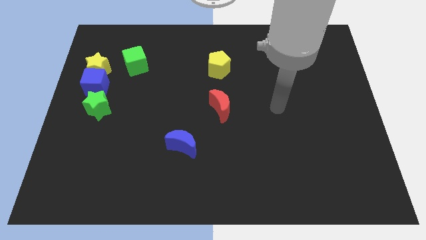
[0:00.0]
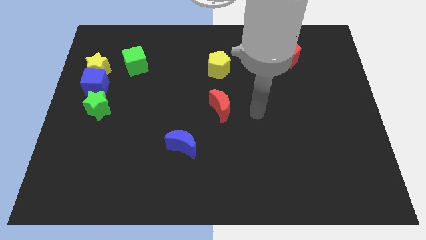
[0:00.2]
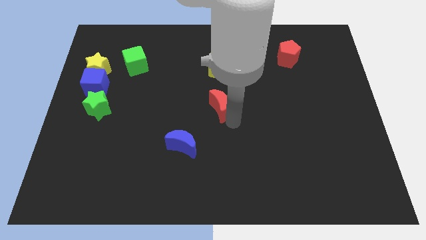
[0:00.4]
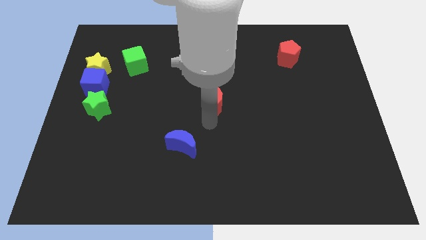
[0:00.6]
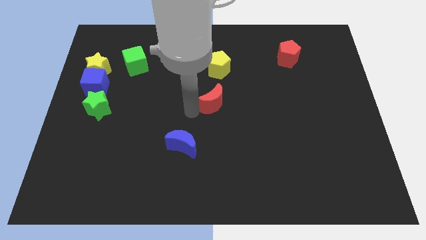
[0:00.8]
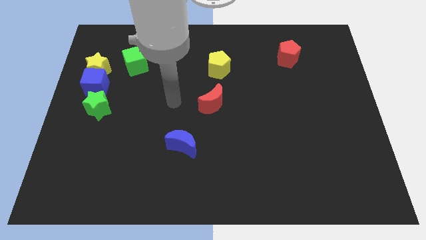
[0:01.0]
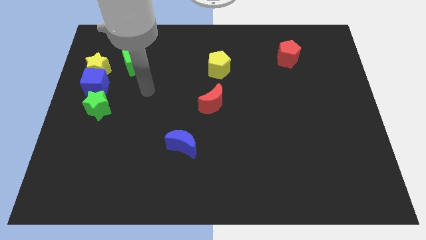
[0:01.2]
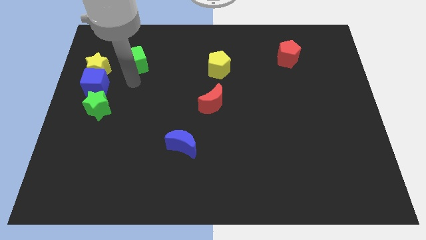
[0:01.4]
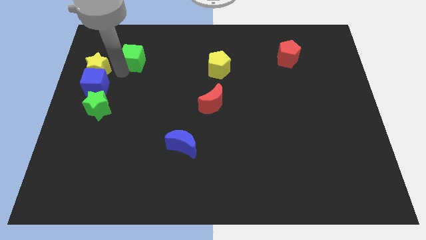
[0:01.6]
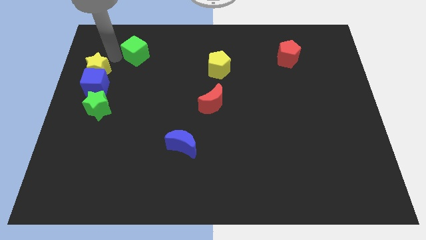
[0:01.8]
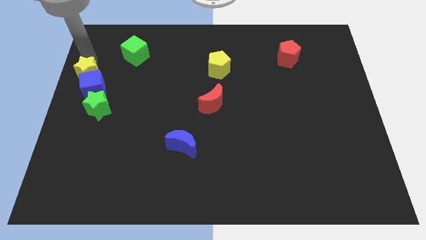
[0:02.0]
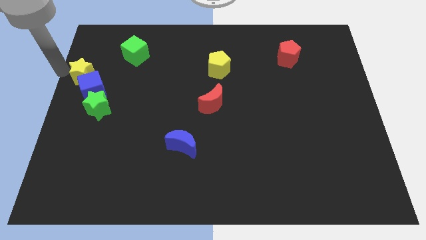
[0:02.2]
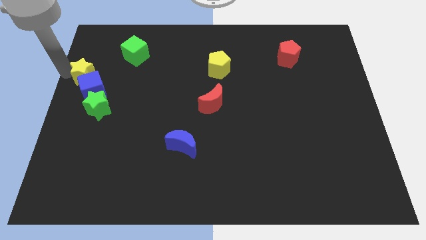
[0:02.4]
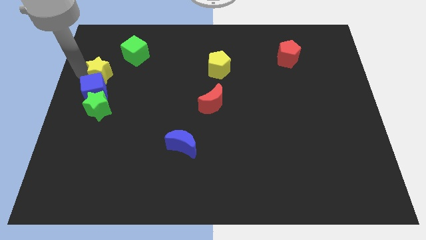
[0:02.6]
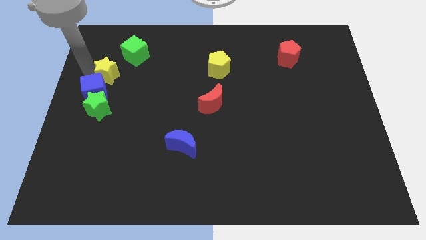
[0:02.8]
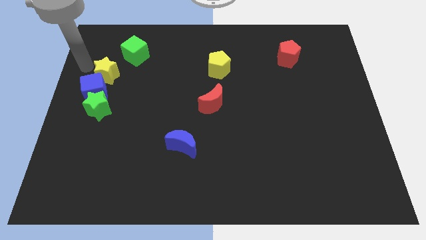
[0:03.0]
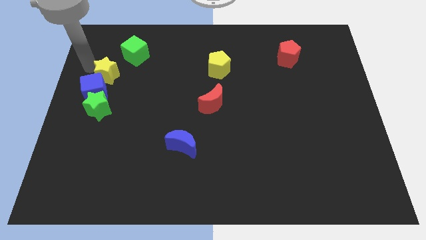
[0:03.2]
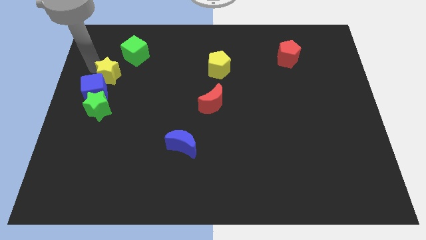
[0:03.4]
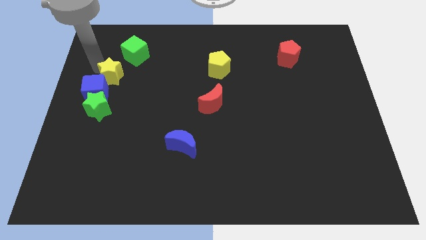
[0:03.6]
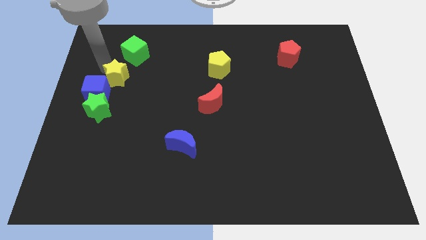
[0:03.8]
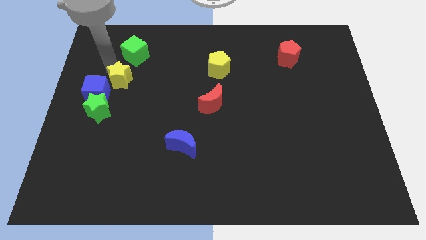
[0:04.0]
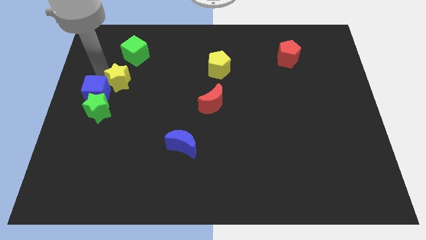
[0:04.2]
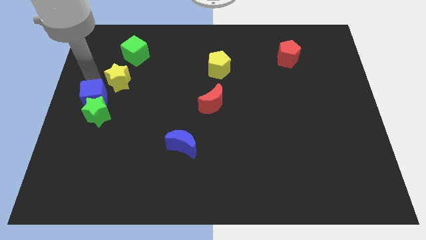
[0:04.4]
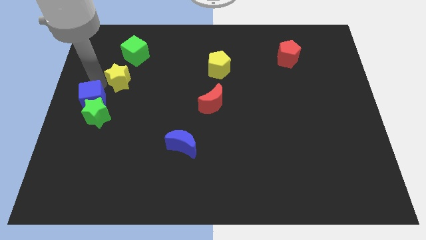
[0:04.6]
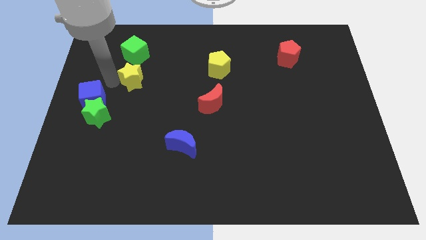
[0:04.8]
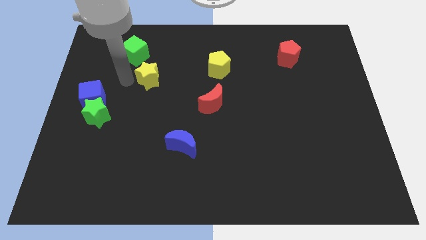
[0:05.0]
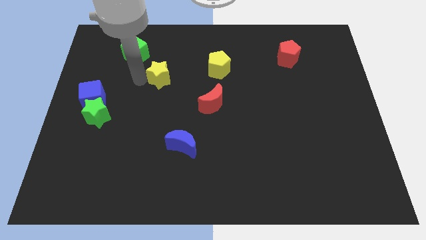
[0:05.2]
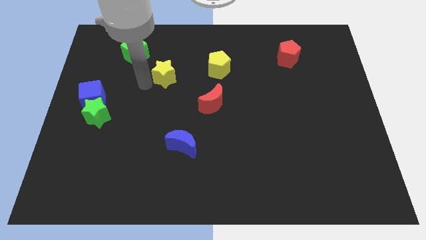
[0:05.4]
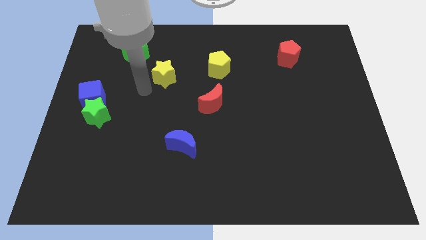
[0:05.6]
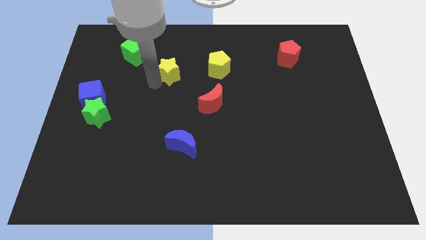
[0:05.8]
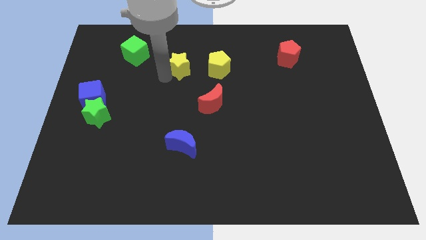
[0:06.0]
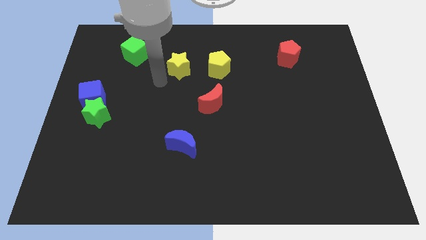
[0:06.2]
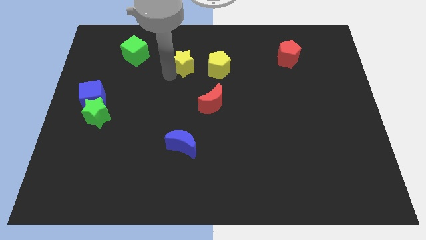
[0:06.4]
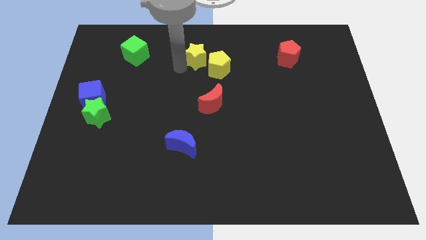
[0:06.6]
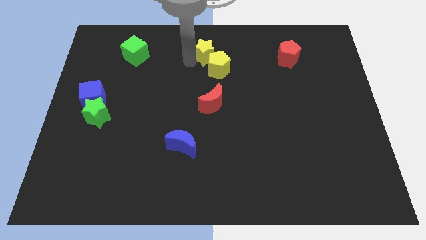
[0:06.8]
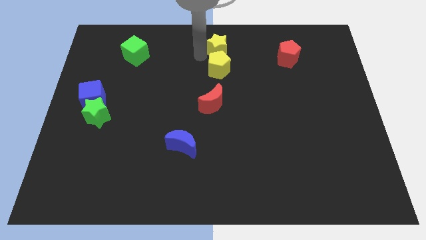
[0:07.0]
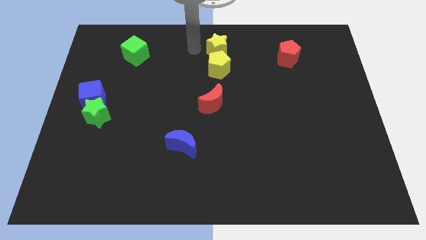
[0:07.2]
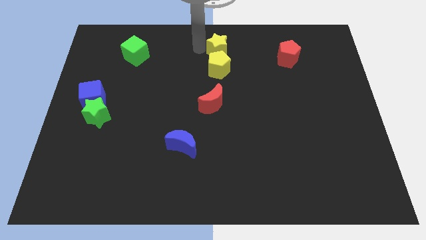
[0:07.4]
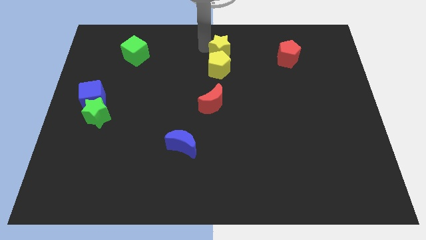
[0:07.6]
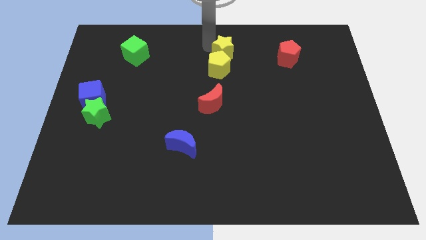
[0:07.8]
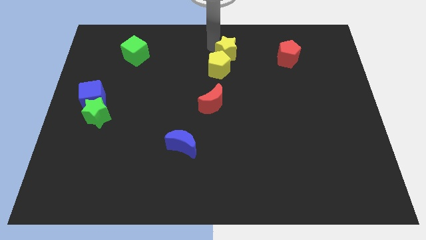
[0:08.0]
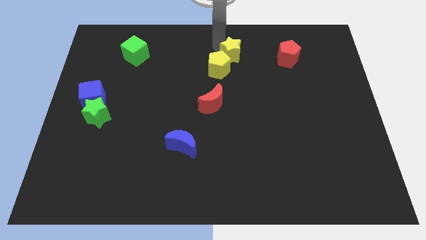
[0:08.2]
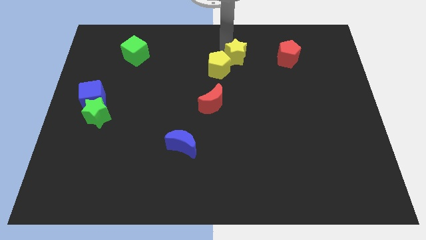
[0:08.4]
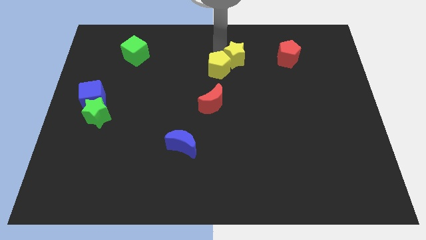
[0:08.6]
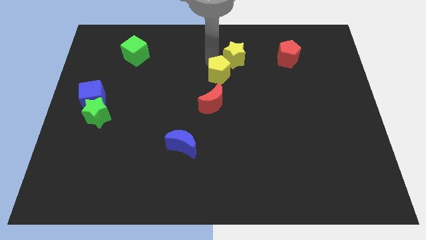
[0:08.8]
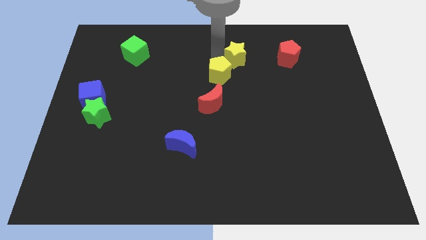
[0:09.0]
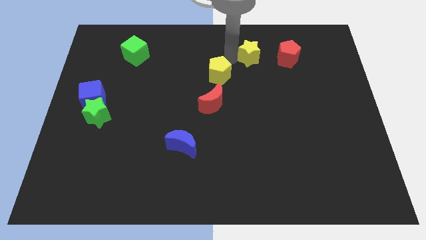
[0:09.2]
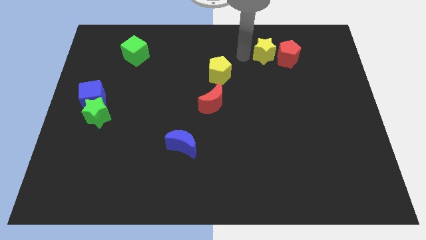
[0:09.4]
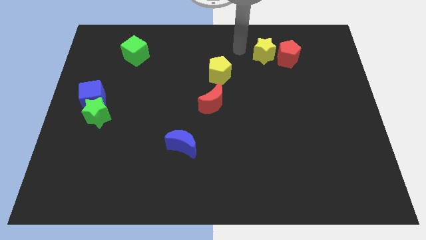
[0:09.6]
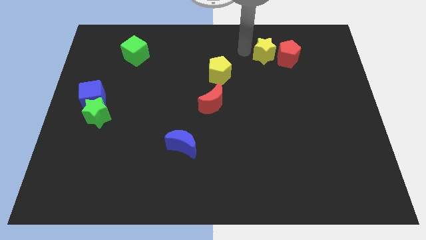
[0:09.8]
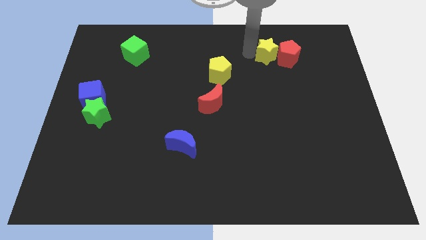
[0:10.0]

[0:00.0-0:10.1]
move the yellow star next to the red pentagon

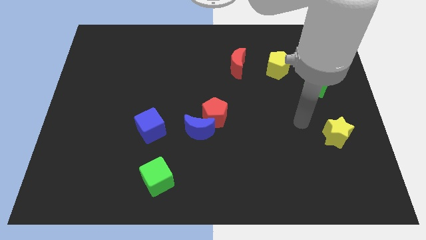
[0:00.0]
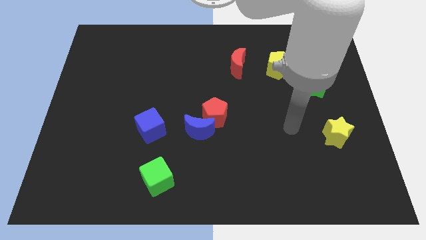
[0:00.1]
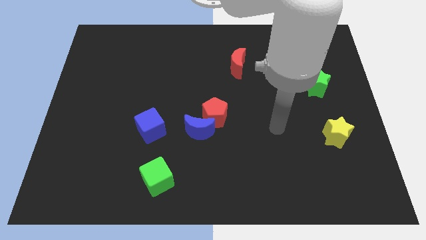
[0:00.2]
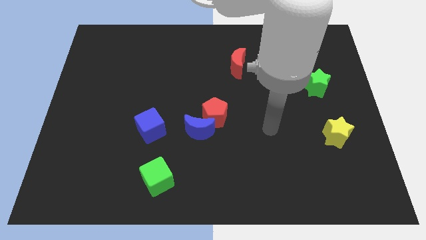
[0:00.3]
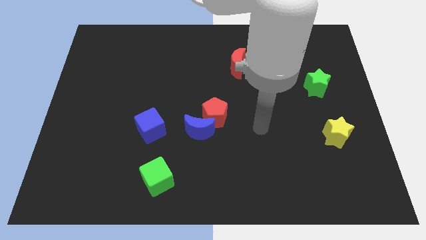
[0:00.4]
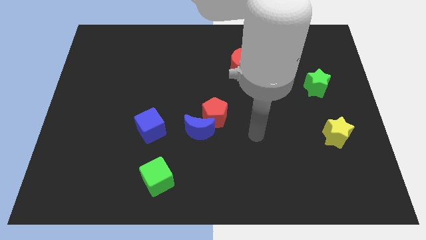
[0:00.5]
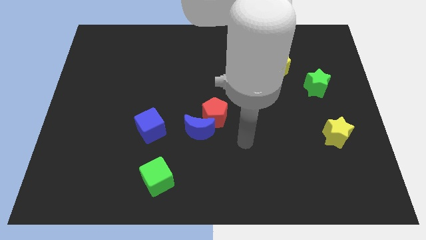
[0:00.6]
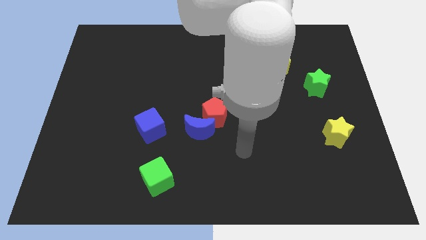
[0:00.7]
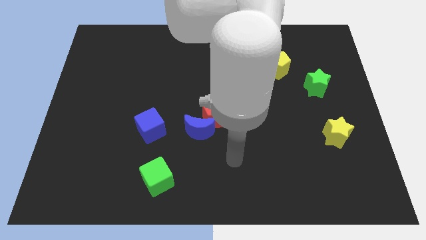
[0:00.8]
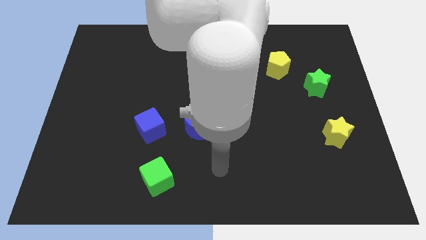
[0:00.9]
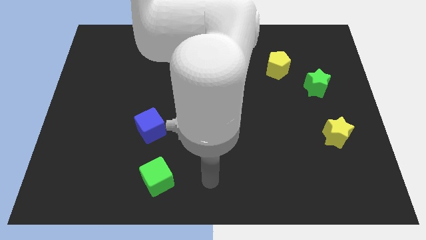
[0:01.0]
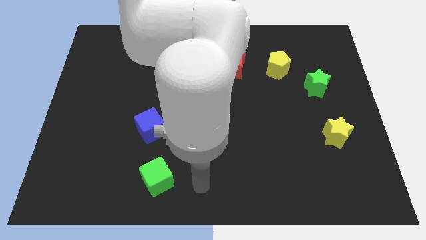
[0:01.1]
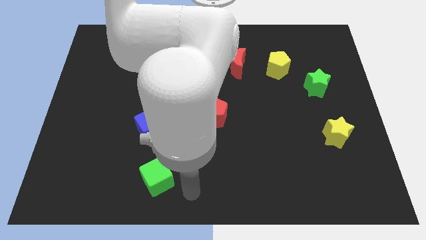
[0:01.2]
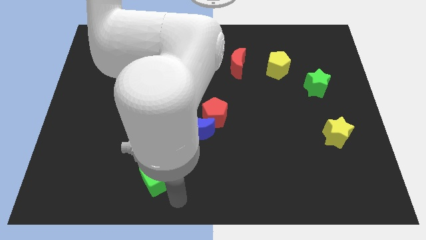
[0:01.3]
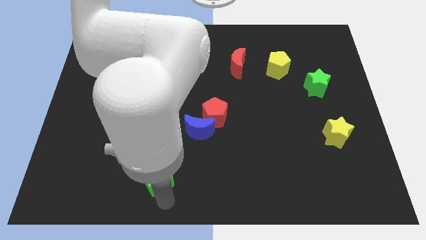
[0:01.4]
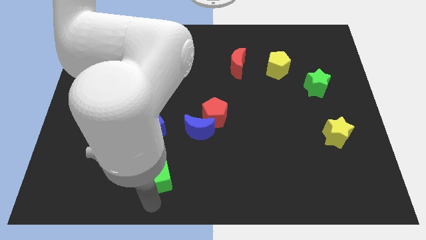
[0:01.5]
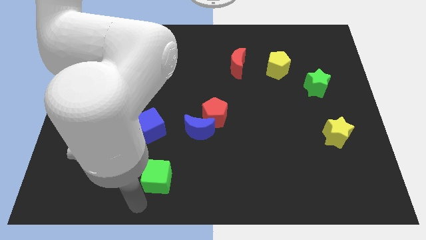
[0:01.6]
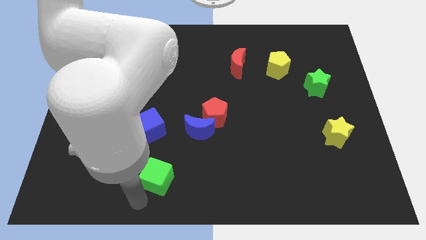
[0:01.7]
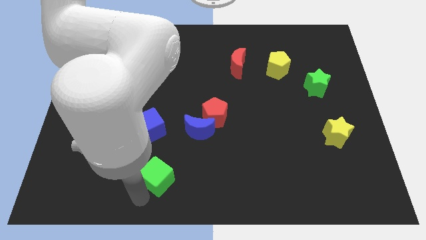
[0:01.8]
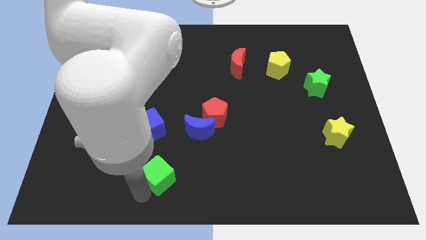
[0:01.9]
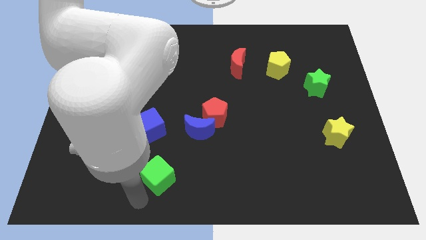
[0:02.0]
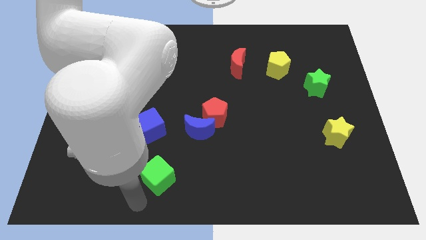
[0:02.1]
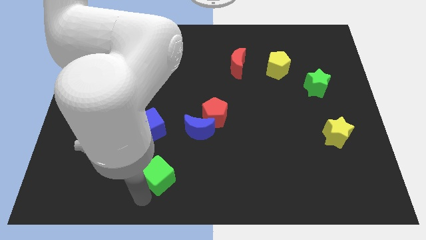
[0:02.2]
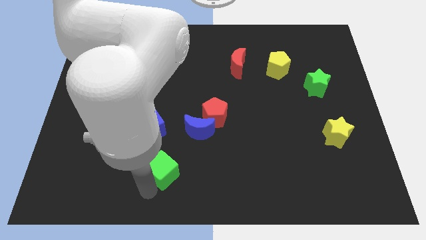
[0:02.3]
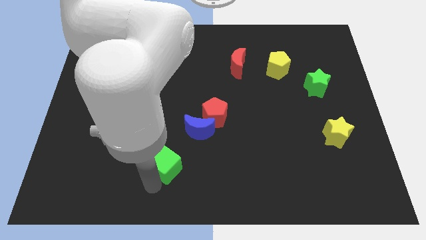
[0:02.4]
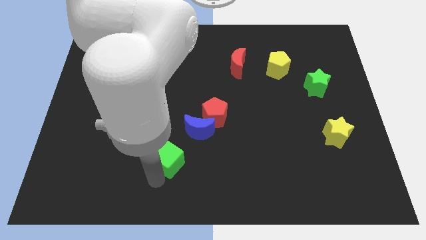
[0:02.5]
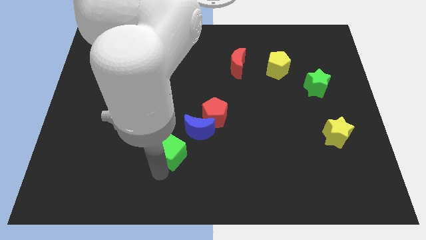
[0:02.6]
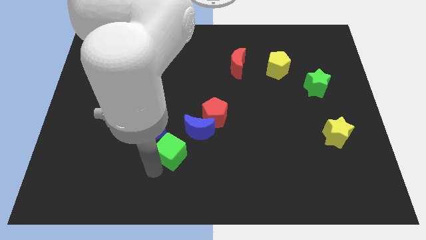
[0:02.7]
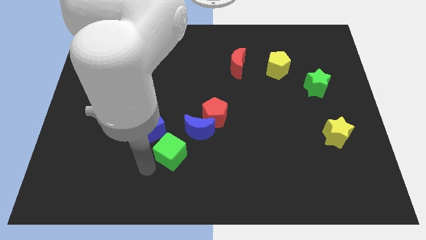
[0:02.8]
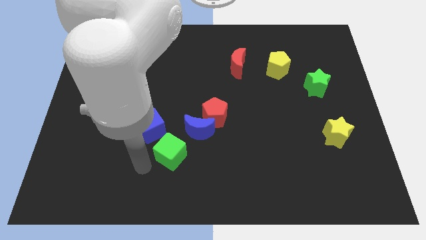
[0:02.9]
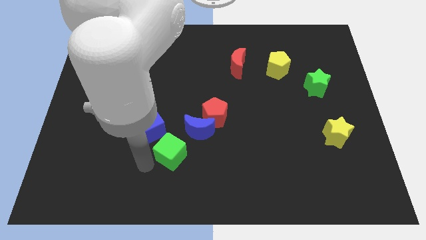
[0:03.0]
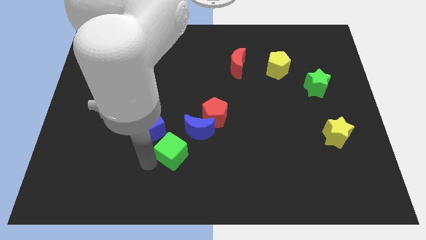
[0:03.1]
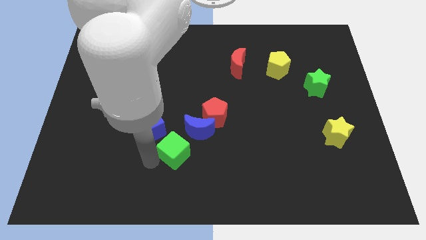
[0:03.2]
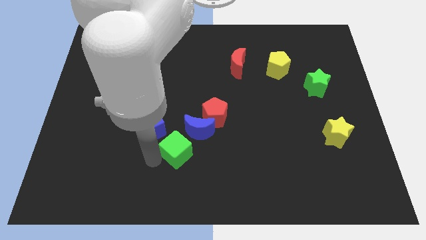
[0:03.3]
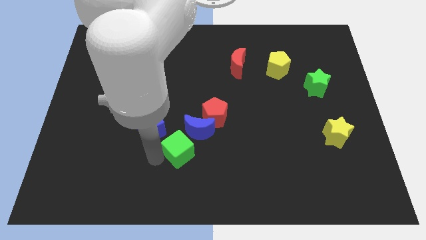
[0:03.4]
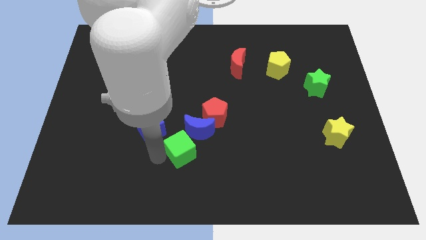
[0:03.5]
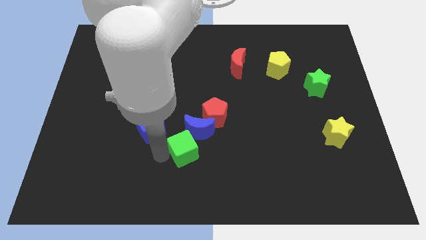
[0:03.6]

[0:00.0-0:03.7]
push the green cube to the blue moon
